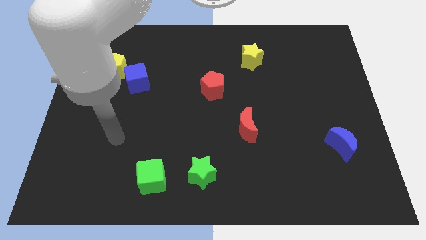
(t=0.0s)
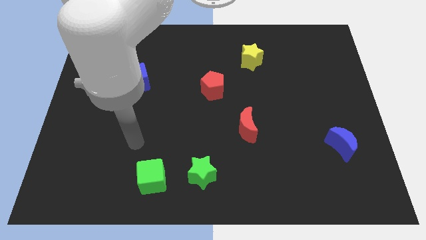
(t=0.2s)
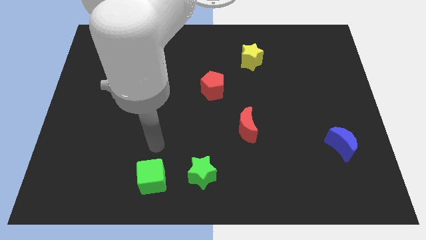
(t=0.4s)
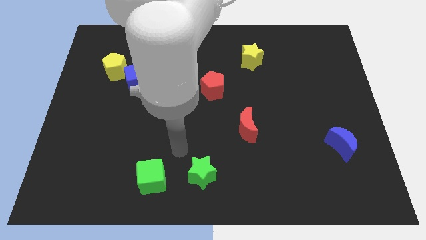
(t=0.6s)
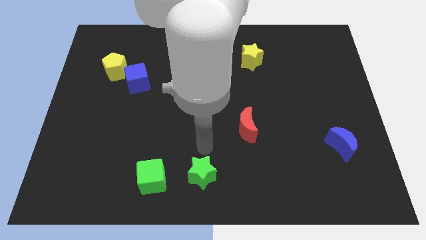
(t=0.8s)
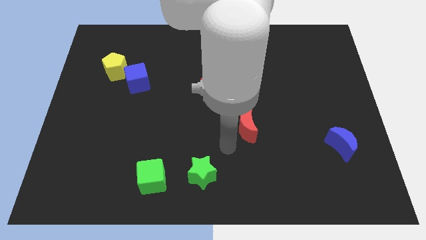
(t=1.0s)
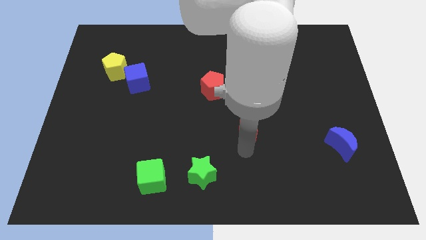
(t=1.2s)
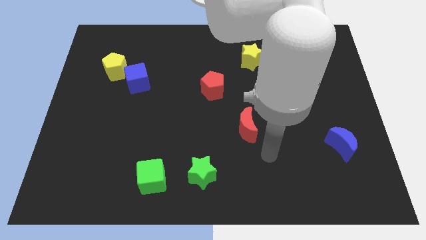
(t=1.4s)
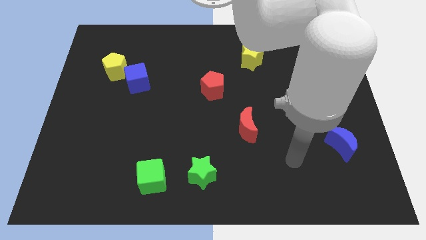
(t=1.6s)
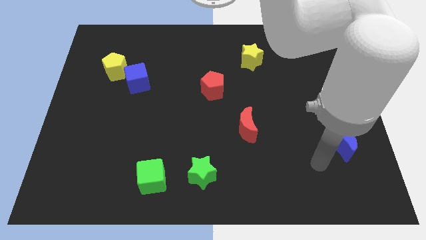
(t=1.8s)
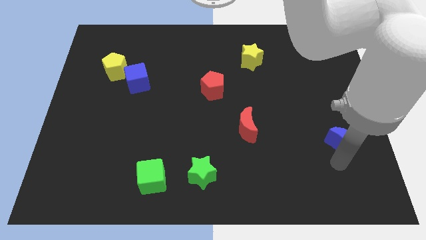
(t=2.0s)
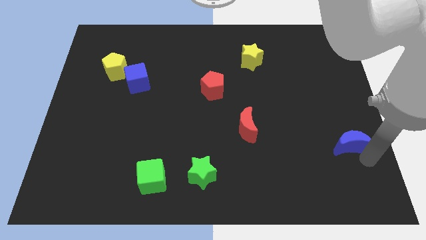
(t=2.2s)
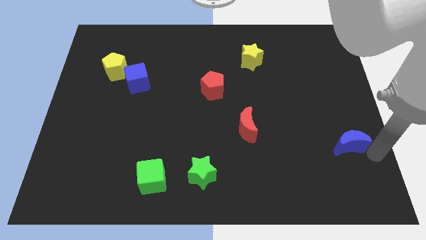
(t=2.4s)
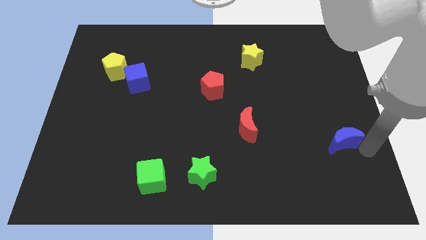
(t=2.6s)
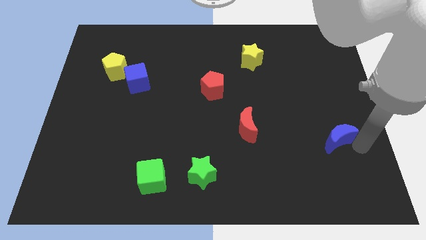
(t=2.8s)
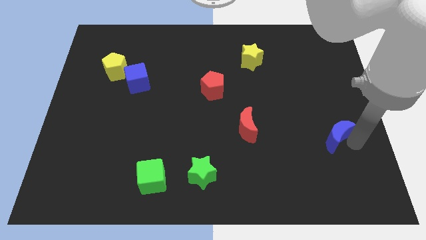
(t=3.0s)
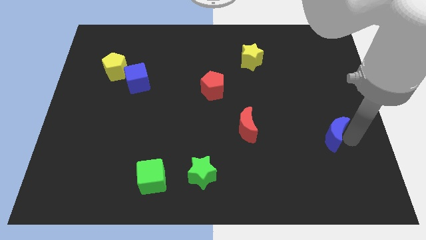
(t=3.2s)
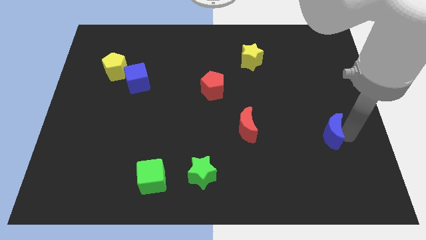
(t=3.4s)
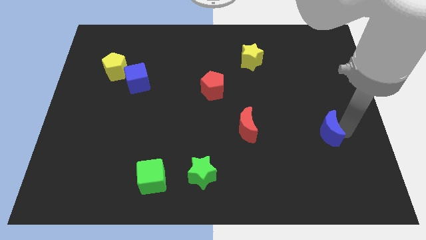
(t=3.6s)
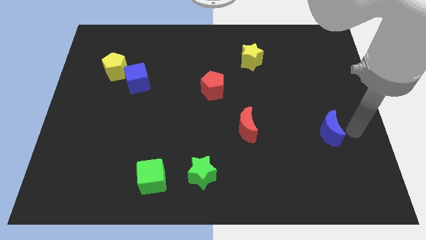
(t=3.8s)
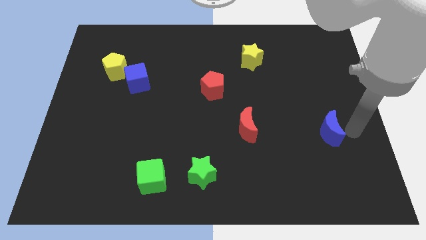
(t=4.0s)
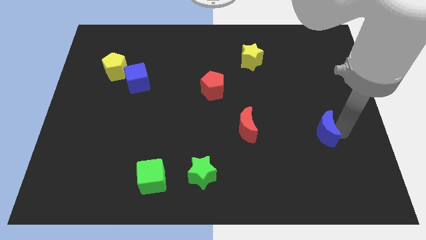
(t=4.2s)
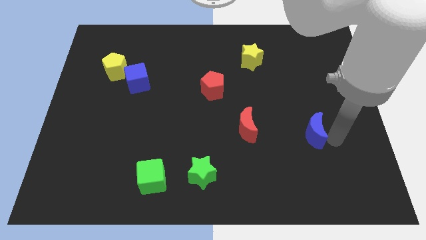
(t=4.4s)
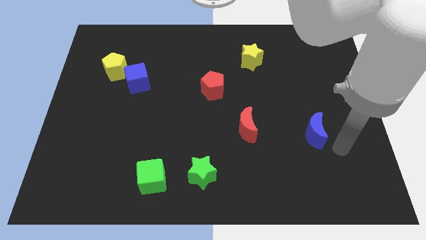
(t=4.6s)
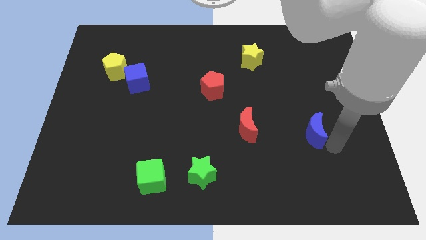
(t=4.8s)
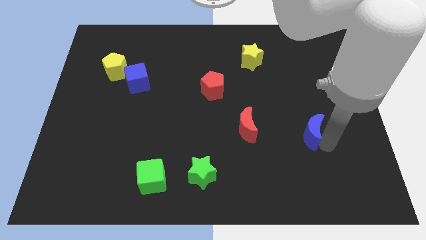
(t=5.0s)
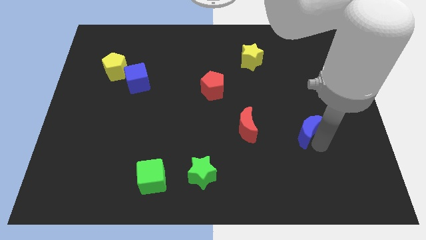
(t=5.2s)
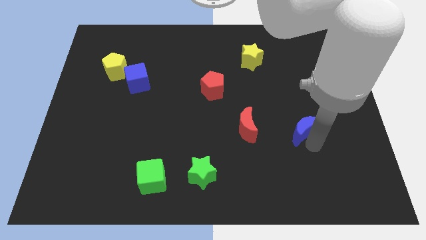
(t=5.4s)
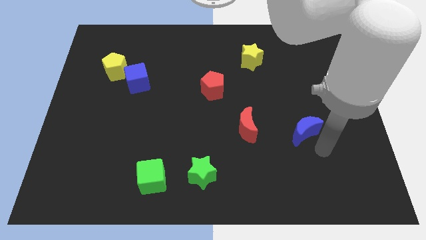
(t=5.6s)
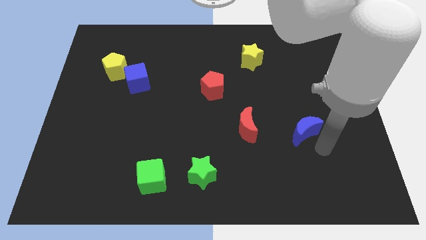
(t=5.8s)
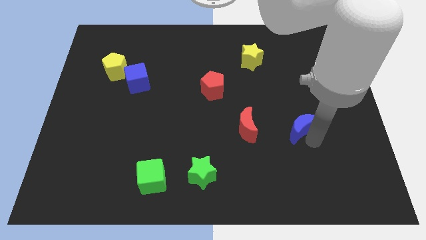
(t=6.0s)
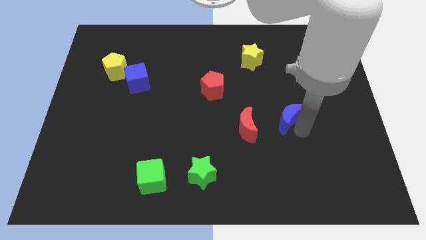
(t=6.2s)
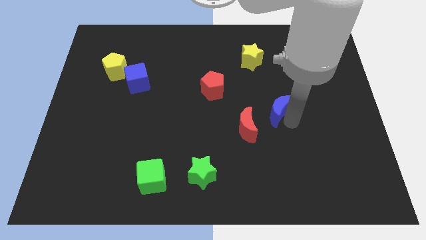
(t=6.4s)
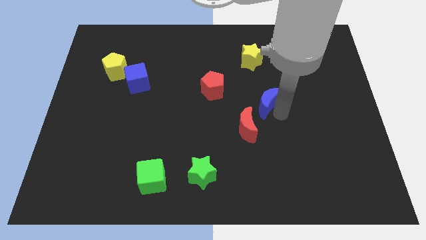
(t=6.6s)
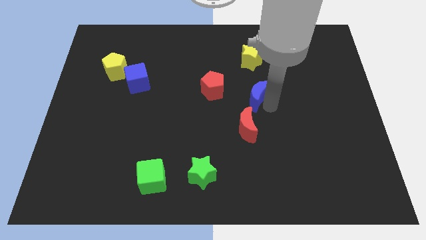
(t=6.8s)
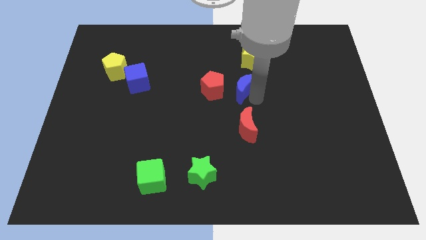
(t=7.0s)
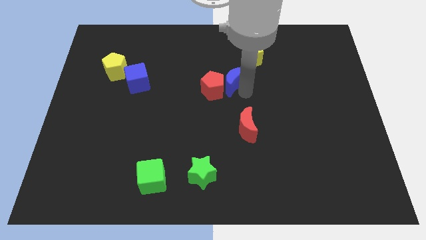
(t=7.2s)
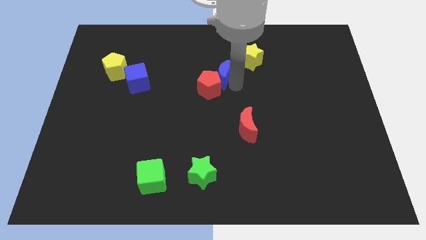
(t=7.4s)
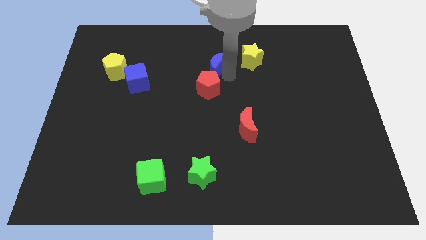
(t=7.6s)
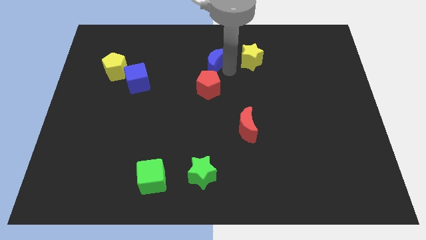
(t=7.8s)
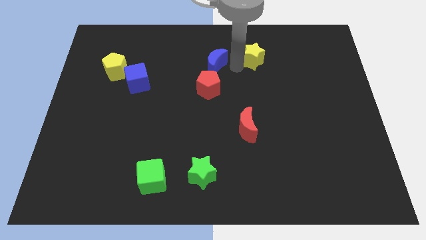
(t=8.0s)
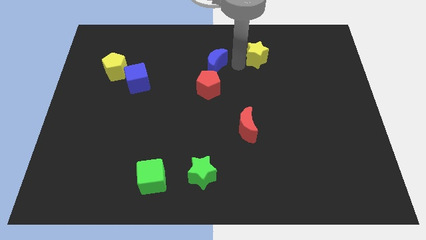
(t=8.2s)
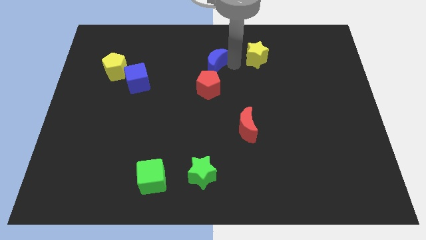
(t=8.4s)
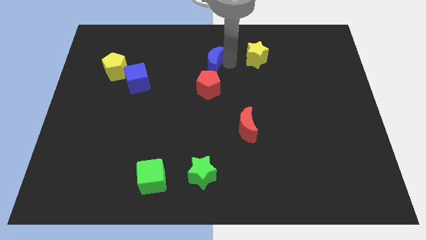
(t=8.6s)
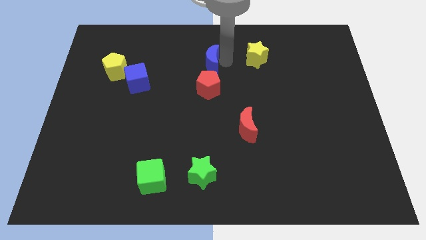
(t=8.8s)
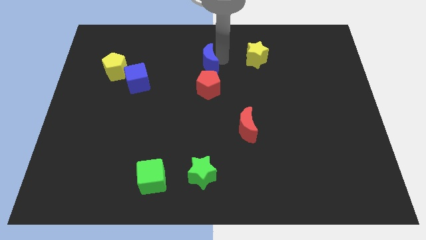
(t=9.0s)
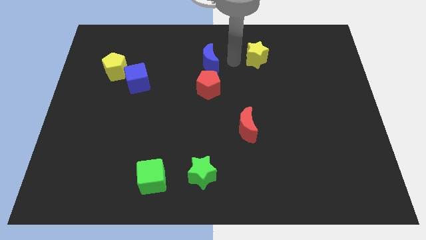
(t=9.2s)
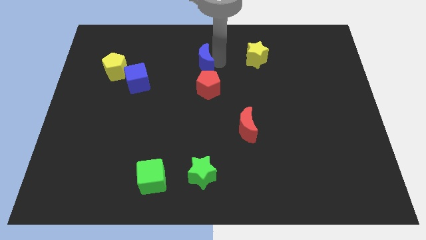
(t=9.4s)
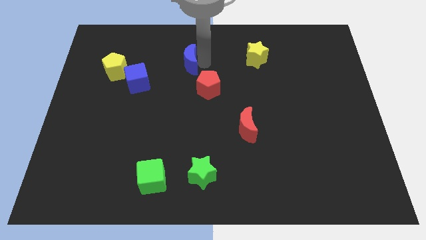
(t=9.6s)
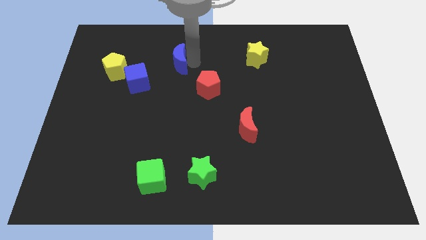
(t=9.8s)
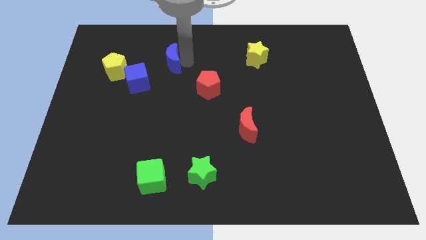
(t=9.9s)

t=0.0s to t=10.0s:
put the blue moon just right of the yellow pentagon

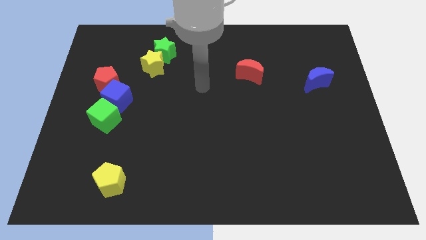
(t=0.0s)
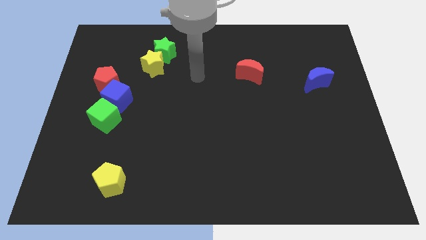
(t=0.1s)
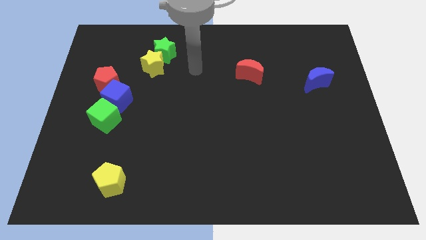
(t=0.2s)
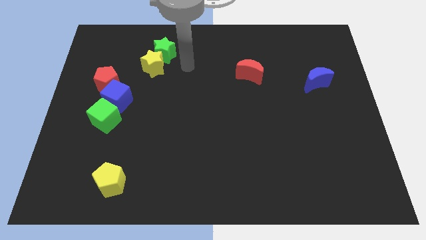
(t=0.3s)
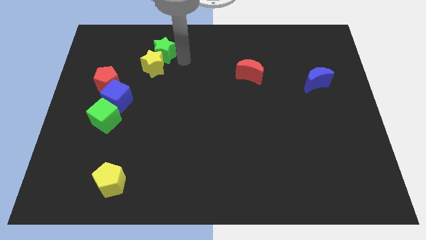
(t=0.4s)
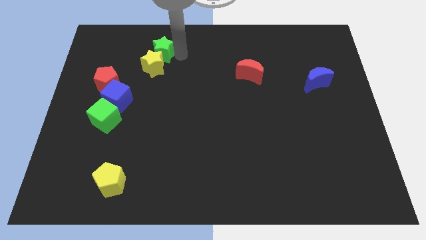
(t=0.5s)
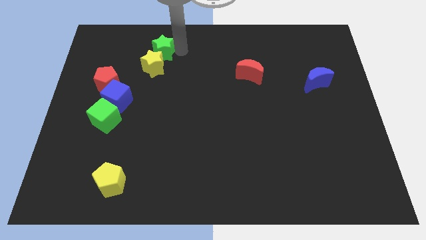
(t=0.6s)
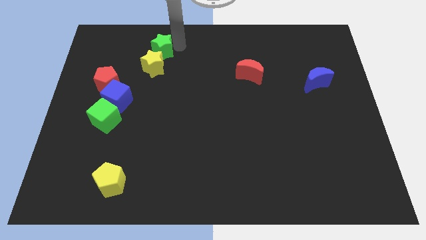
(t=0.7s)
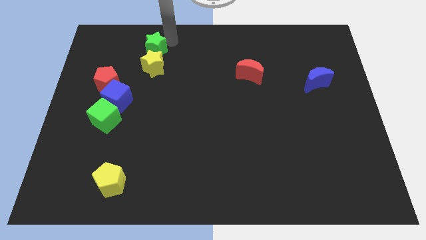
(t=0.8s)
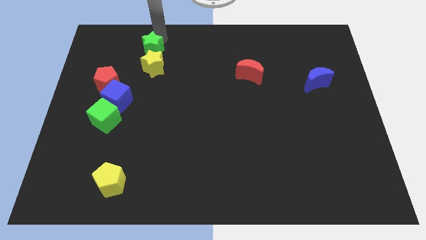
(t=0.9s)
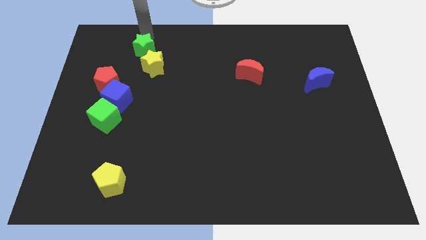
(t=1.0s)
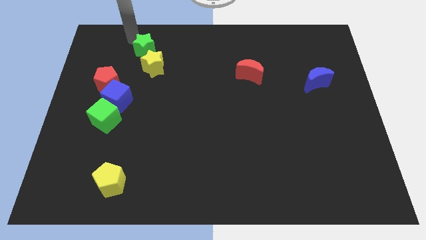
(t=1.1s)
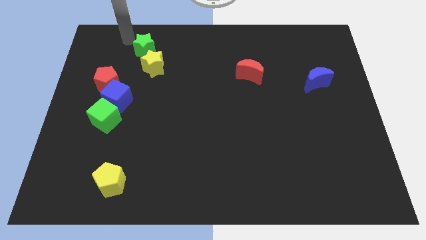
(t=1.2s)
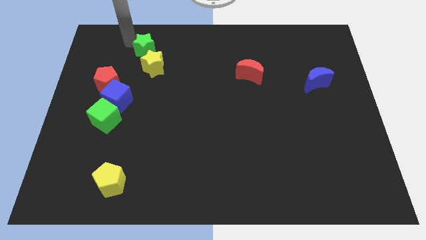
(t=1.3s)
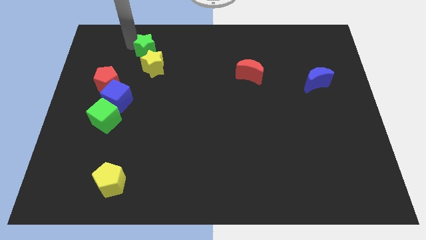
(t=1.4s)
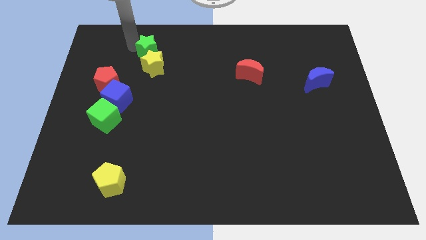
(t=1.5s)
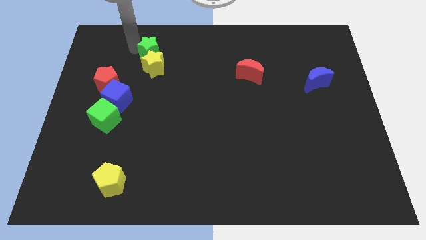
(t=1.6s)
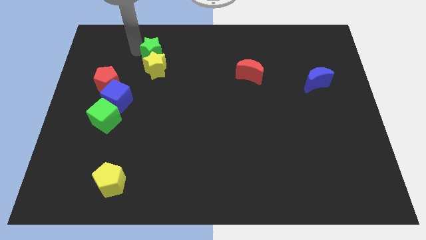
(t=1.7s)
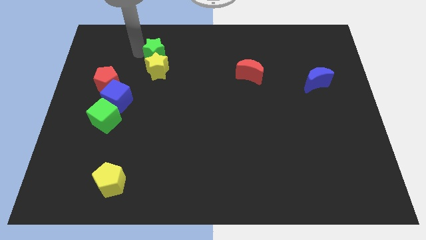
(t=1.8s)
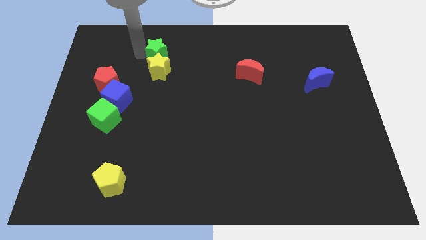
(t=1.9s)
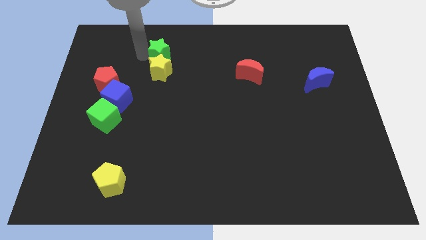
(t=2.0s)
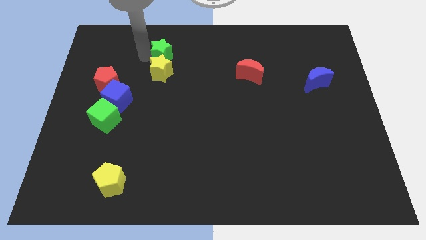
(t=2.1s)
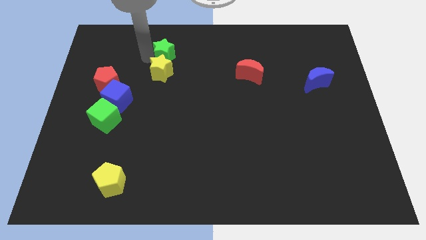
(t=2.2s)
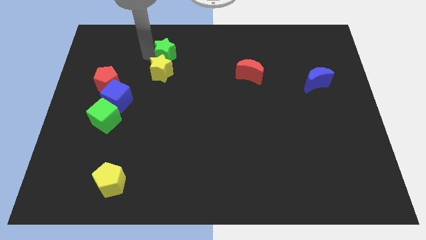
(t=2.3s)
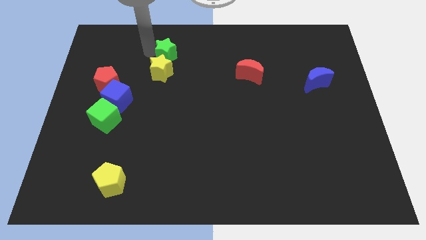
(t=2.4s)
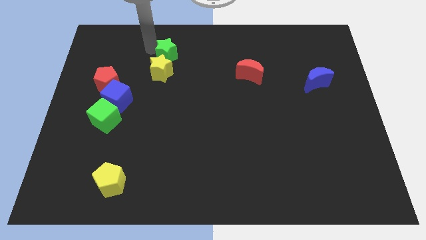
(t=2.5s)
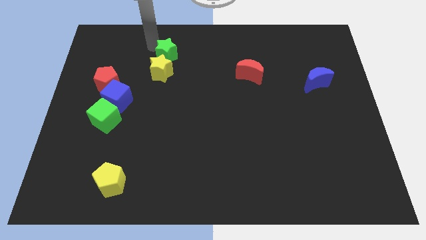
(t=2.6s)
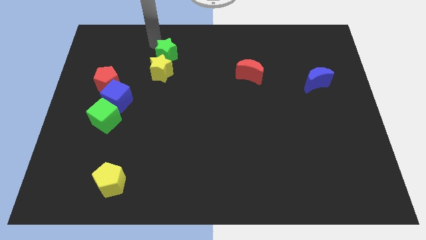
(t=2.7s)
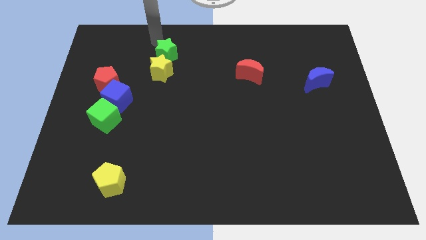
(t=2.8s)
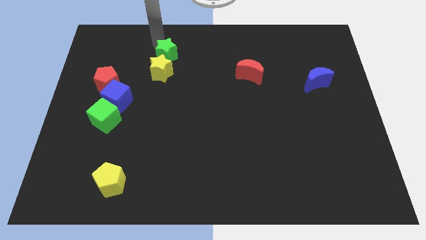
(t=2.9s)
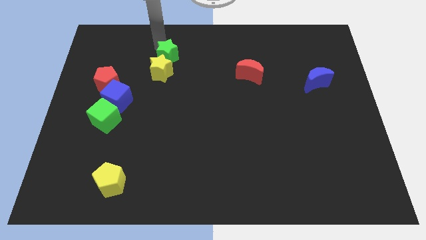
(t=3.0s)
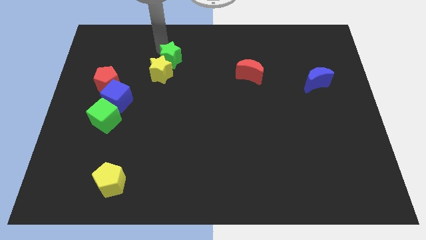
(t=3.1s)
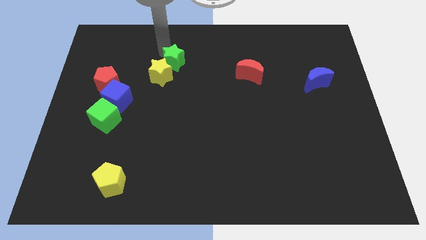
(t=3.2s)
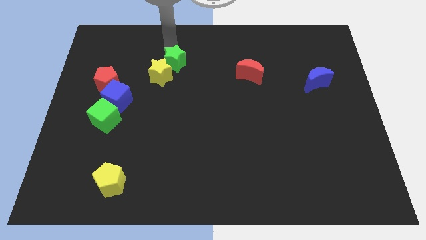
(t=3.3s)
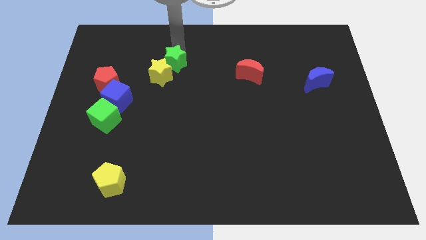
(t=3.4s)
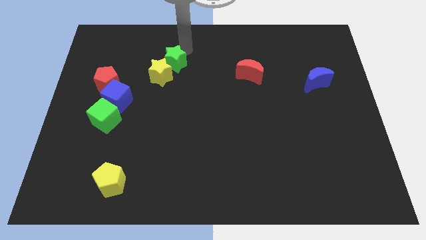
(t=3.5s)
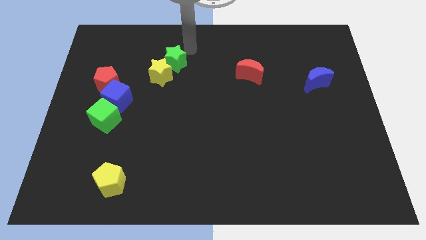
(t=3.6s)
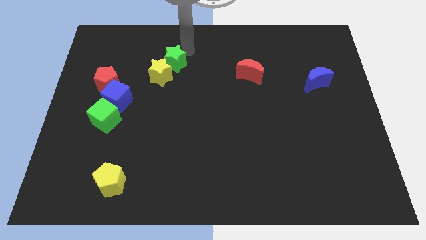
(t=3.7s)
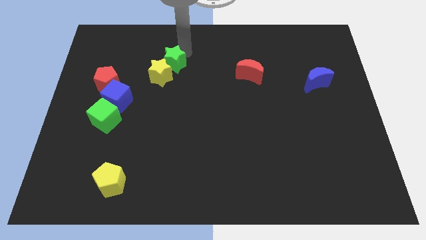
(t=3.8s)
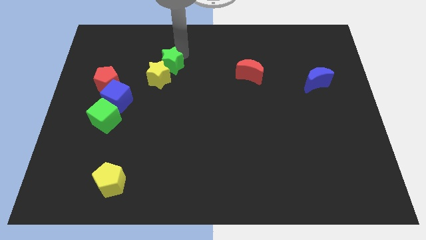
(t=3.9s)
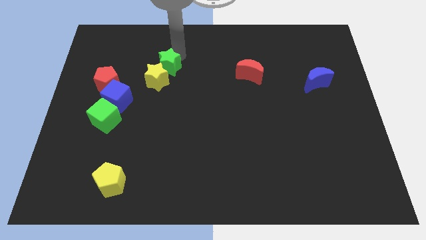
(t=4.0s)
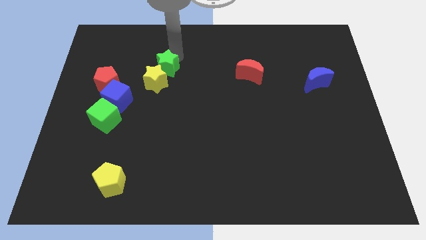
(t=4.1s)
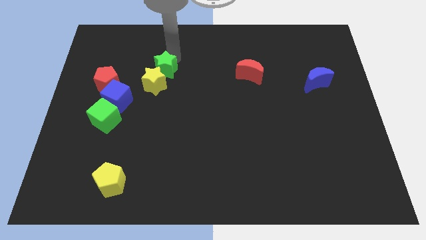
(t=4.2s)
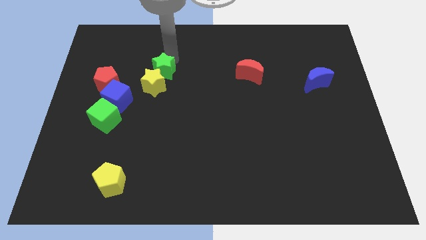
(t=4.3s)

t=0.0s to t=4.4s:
move the green star to the right of the red pentagon
